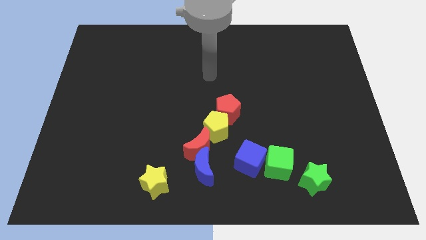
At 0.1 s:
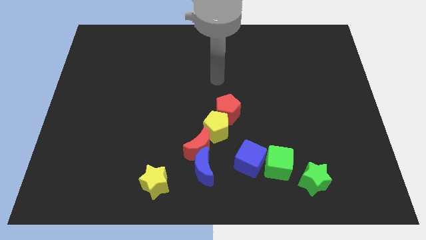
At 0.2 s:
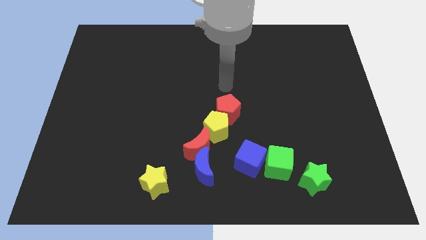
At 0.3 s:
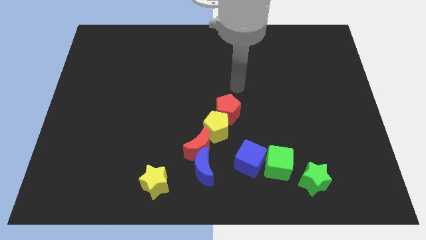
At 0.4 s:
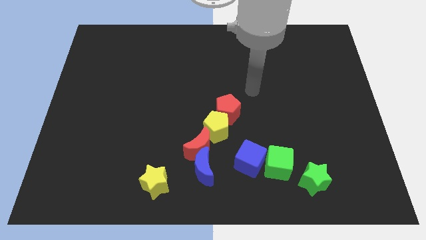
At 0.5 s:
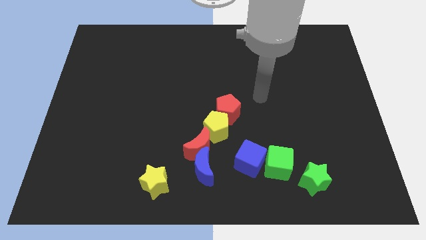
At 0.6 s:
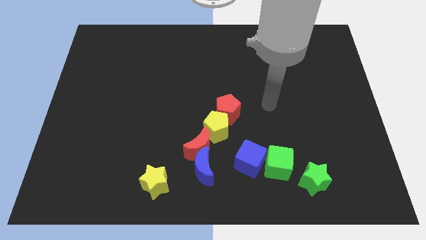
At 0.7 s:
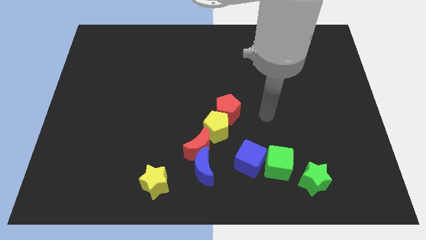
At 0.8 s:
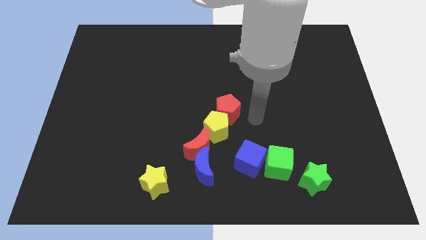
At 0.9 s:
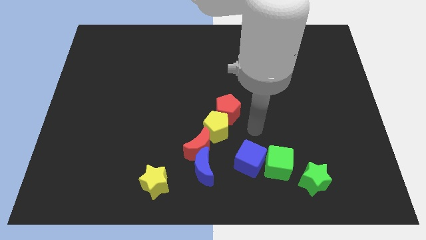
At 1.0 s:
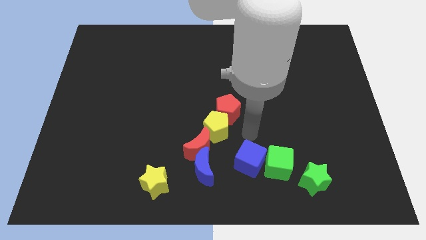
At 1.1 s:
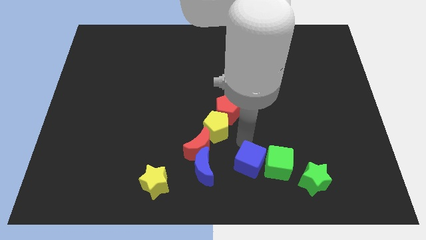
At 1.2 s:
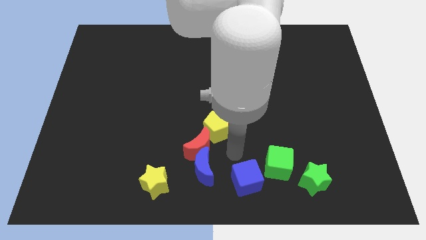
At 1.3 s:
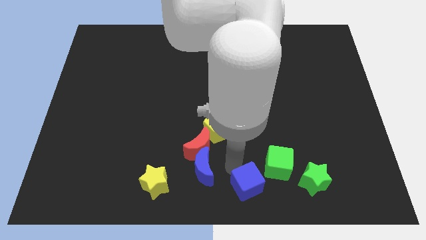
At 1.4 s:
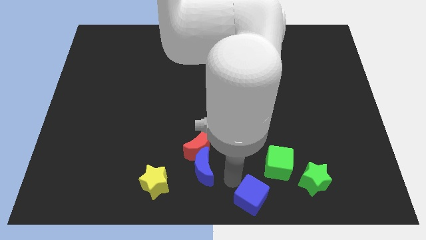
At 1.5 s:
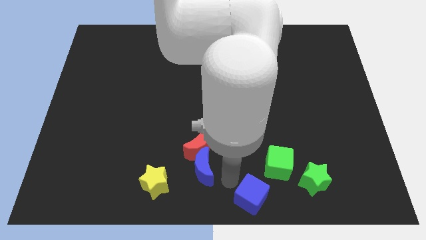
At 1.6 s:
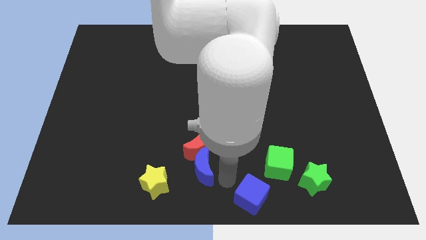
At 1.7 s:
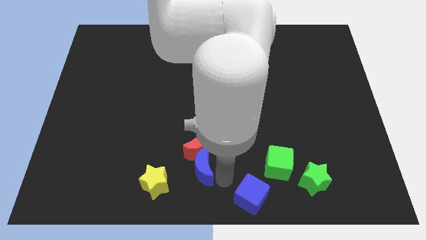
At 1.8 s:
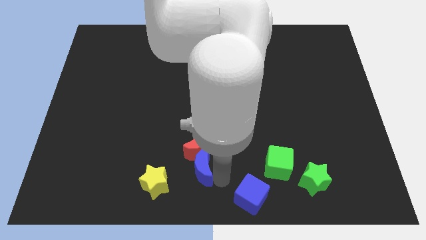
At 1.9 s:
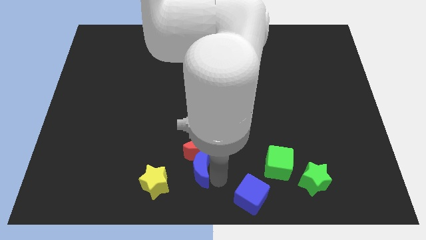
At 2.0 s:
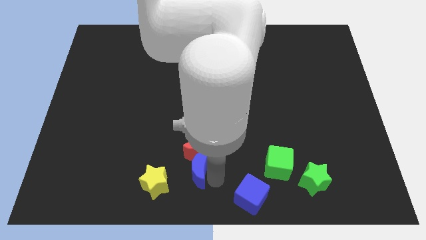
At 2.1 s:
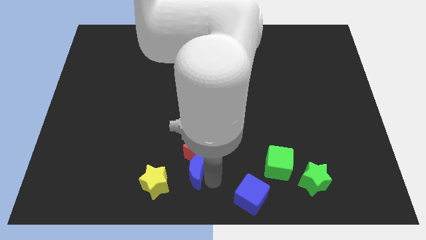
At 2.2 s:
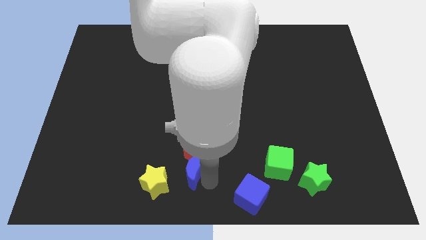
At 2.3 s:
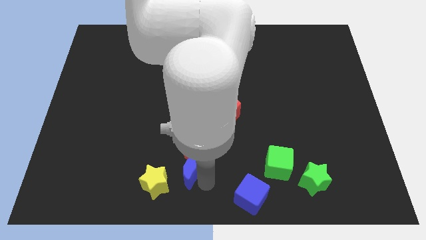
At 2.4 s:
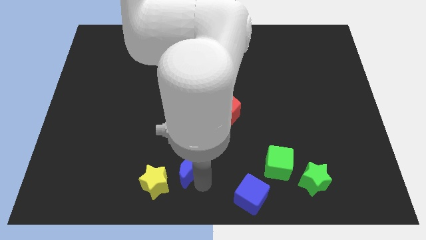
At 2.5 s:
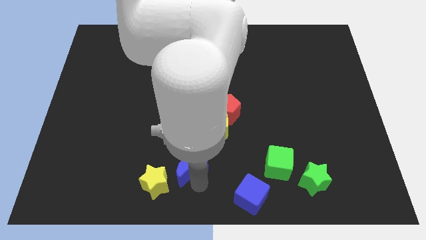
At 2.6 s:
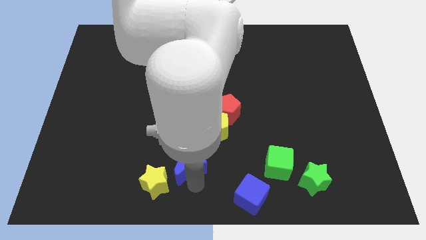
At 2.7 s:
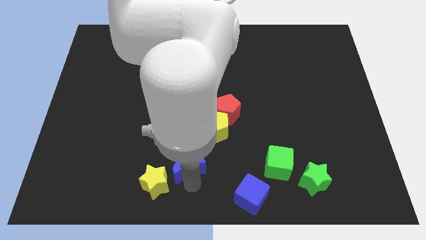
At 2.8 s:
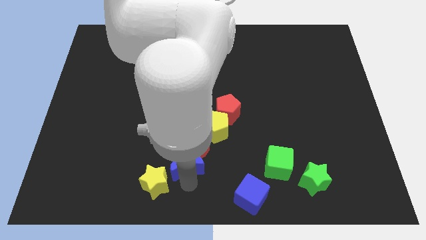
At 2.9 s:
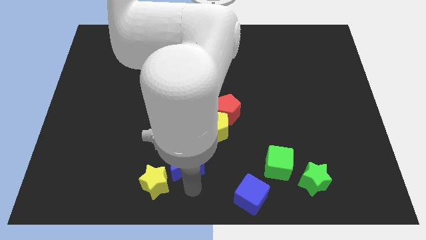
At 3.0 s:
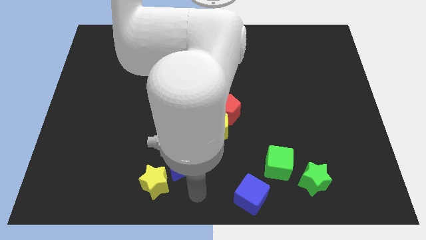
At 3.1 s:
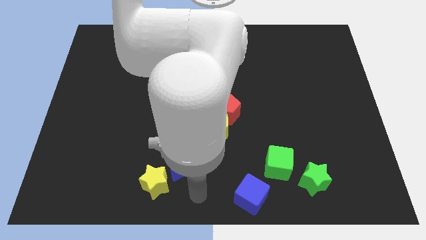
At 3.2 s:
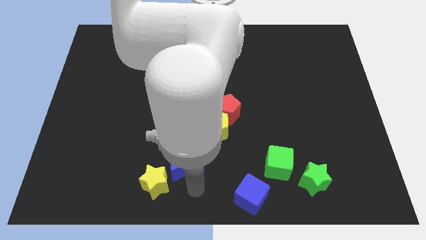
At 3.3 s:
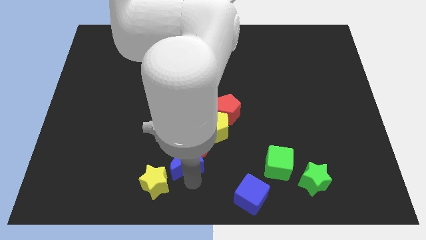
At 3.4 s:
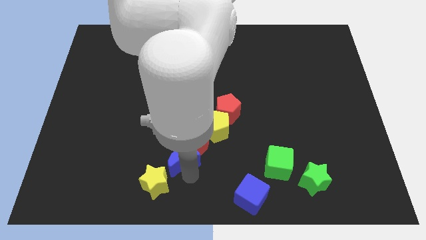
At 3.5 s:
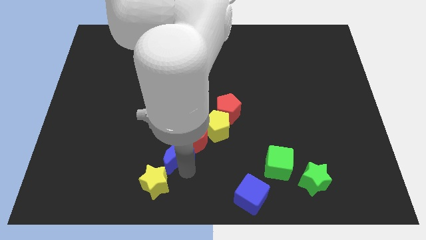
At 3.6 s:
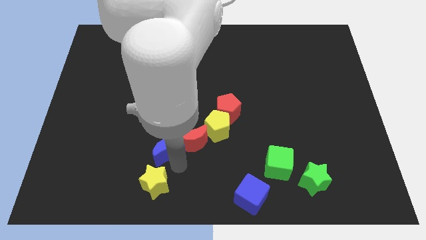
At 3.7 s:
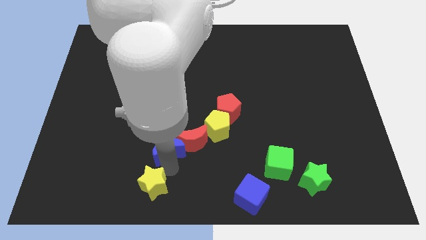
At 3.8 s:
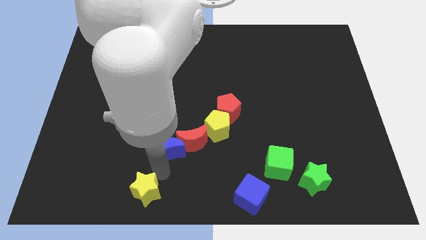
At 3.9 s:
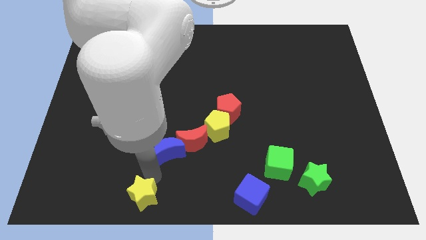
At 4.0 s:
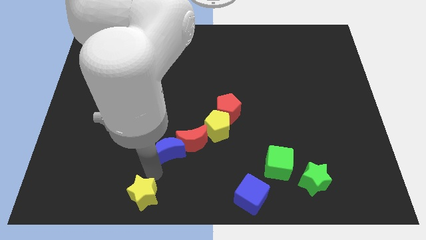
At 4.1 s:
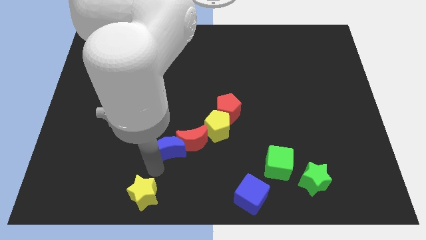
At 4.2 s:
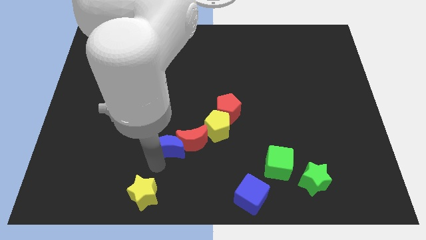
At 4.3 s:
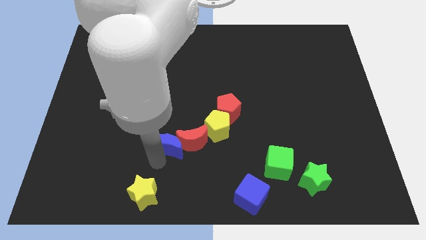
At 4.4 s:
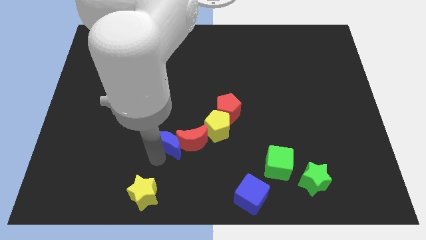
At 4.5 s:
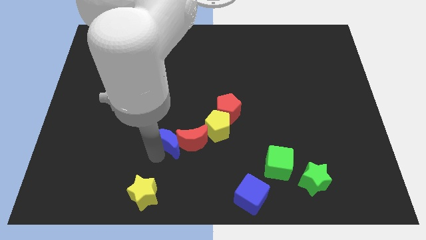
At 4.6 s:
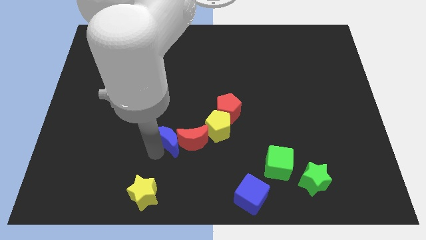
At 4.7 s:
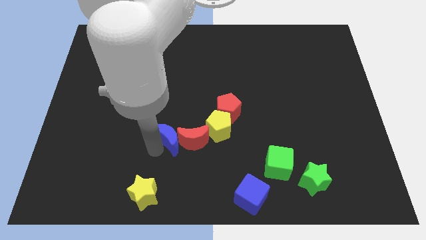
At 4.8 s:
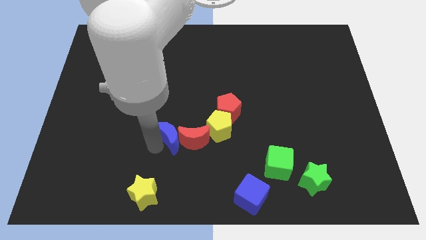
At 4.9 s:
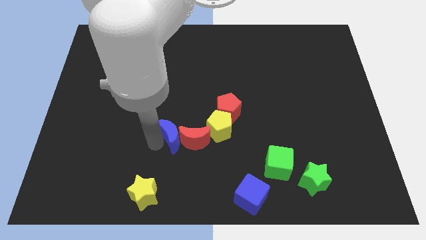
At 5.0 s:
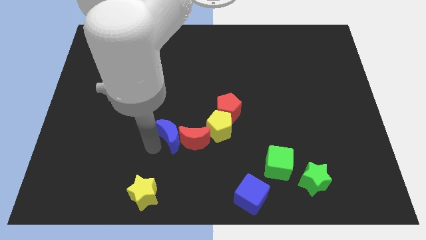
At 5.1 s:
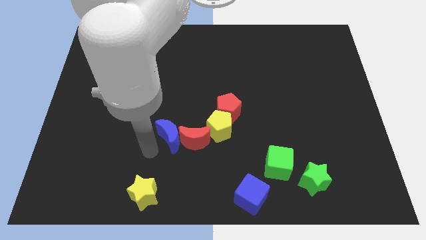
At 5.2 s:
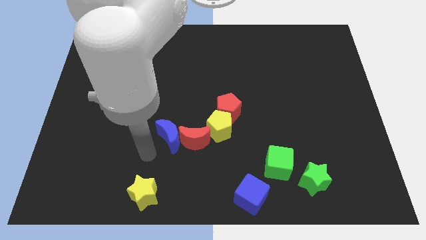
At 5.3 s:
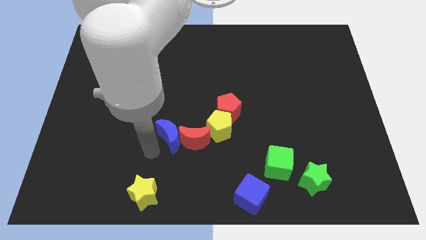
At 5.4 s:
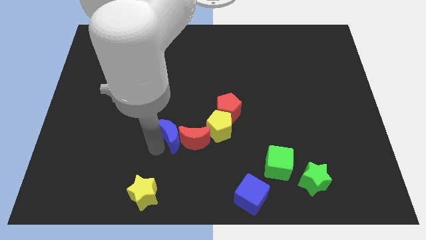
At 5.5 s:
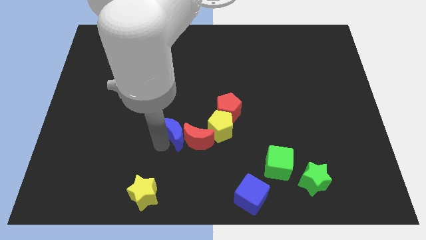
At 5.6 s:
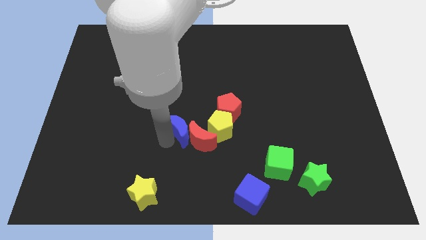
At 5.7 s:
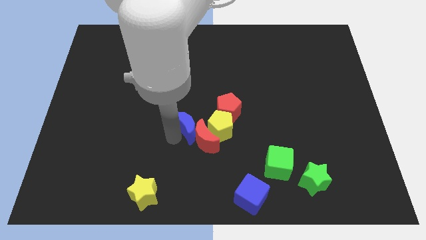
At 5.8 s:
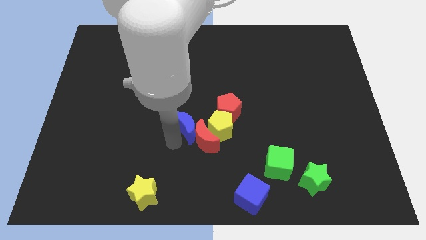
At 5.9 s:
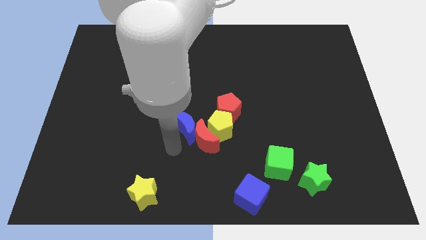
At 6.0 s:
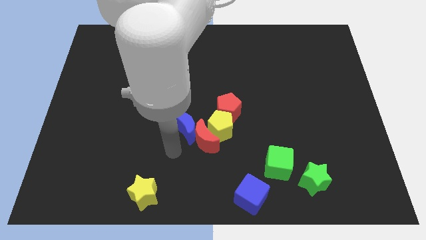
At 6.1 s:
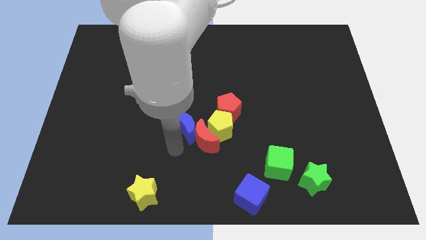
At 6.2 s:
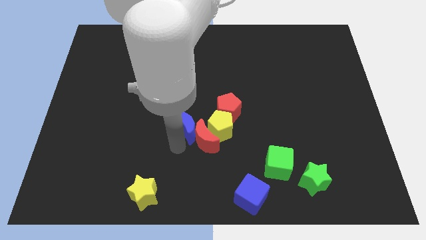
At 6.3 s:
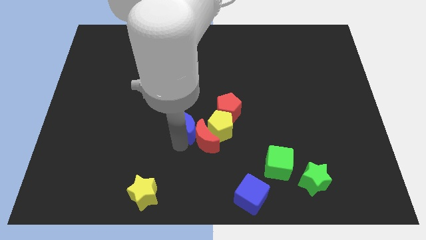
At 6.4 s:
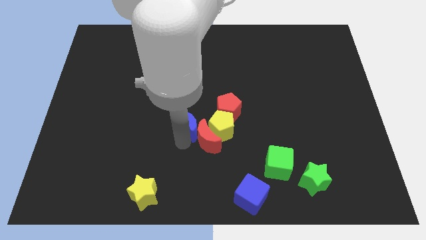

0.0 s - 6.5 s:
put the blue moon to the top left side of the yellow pentagon
